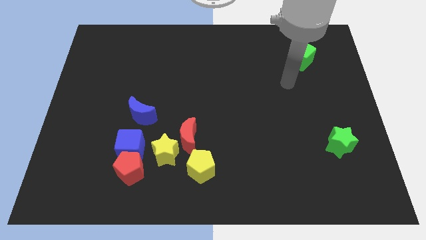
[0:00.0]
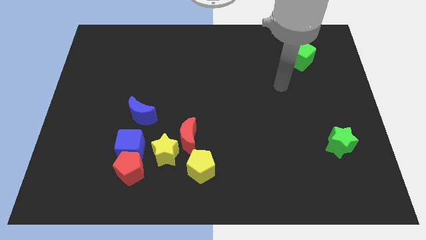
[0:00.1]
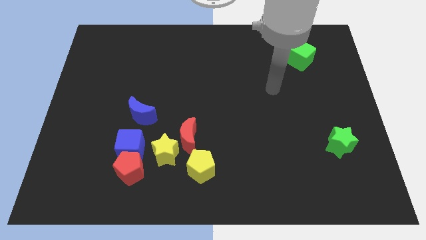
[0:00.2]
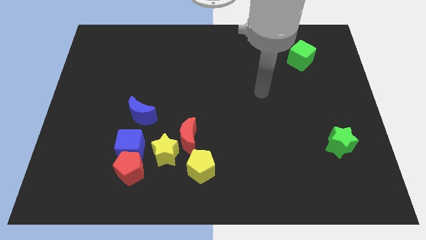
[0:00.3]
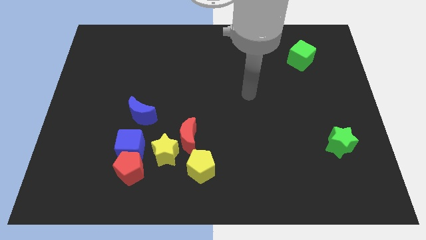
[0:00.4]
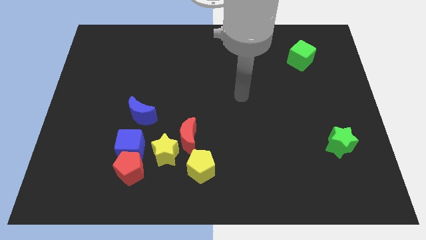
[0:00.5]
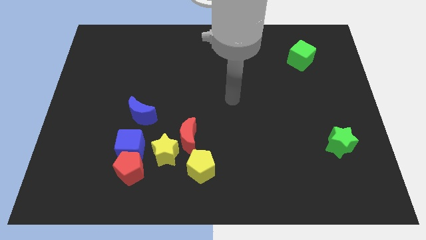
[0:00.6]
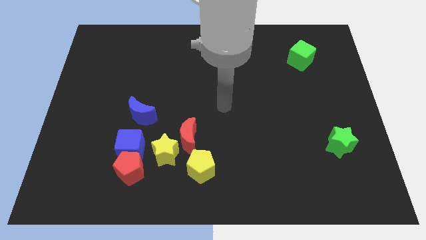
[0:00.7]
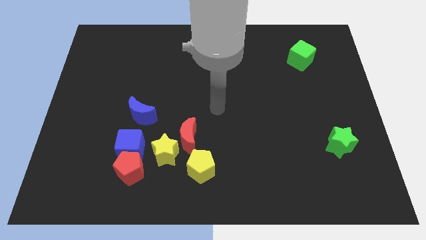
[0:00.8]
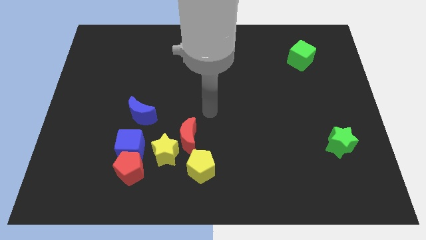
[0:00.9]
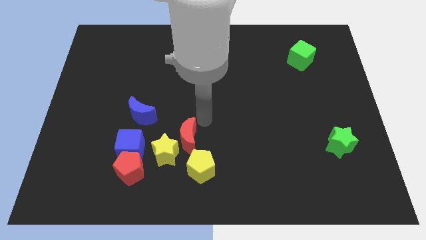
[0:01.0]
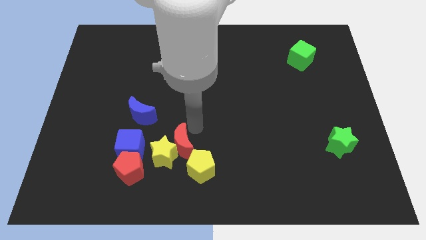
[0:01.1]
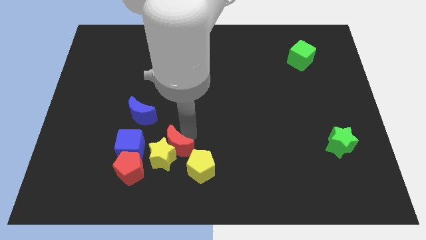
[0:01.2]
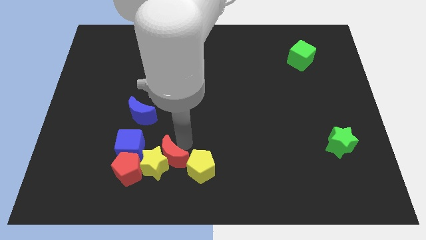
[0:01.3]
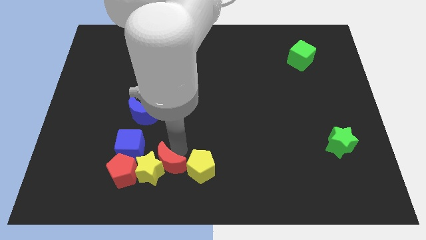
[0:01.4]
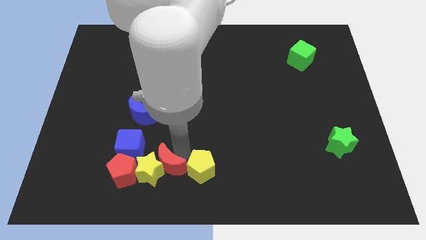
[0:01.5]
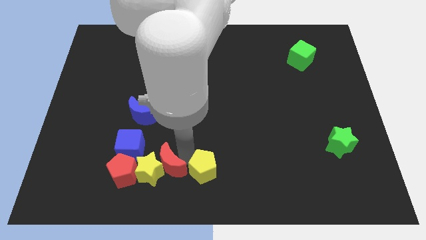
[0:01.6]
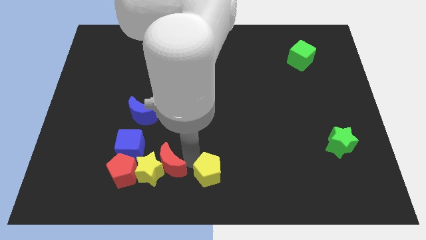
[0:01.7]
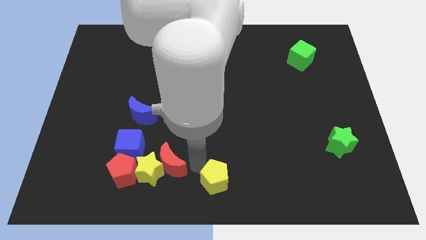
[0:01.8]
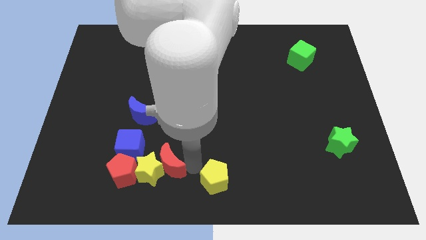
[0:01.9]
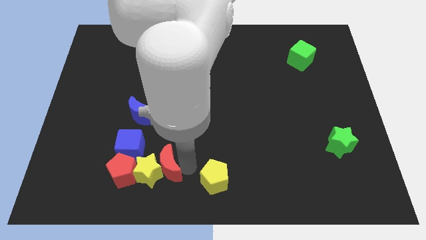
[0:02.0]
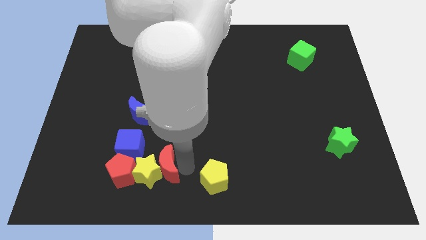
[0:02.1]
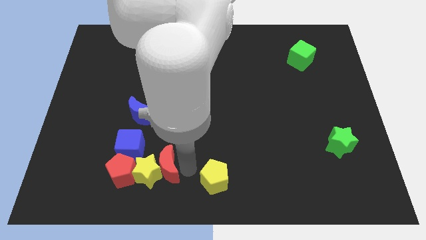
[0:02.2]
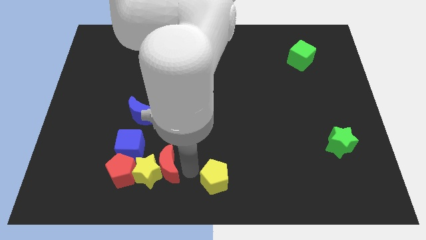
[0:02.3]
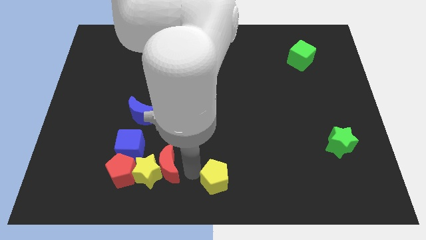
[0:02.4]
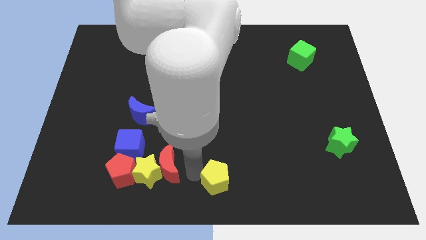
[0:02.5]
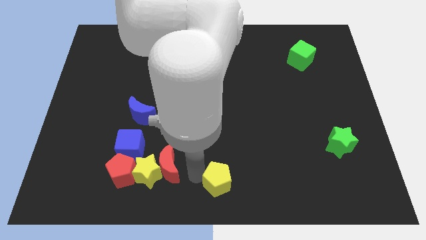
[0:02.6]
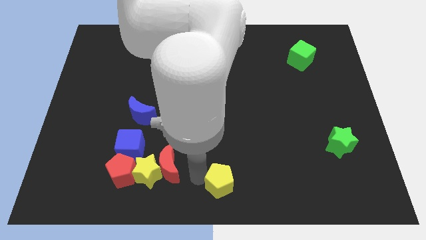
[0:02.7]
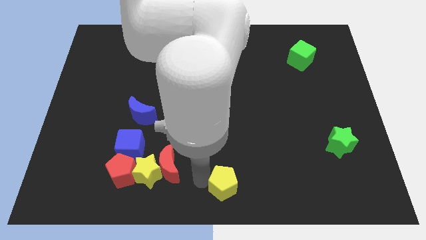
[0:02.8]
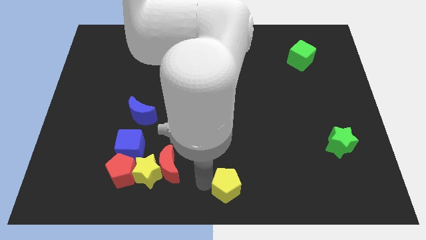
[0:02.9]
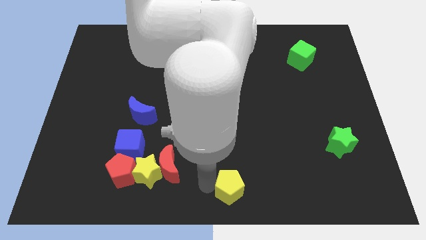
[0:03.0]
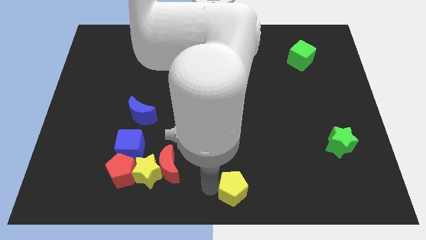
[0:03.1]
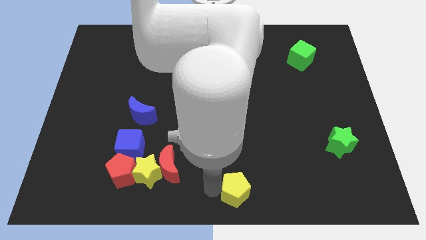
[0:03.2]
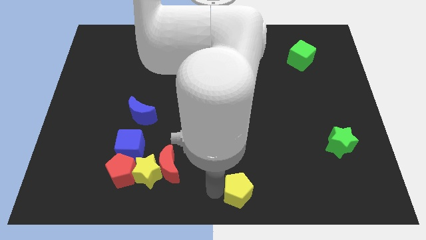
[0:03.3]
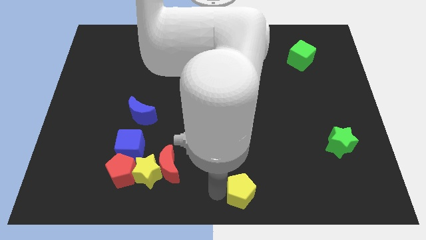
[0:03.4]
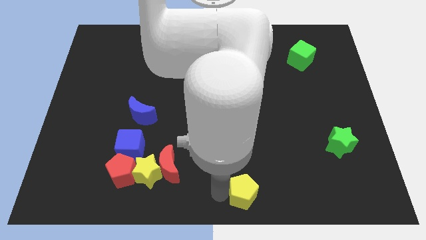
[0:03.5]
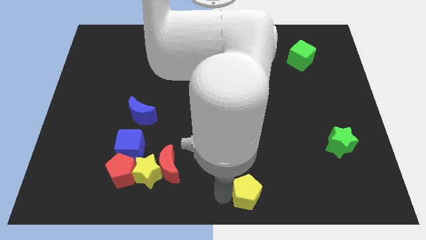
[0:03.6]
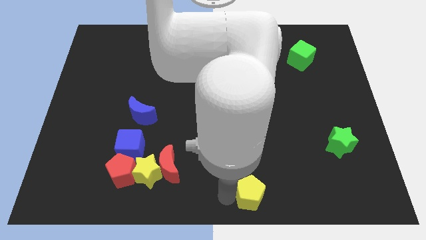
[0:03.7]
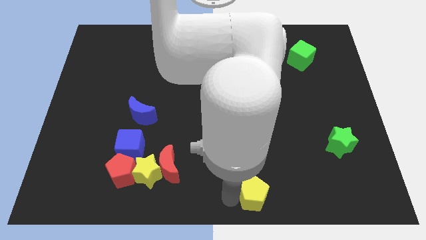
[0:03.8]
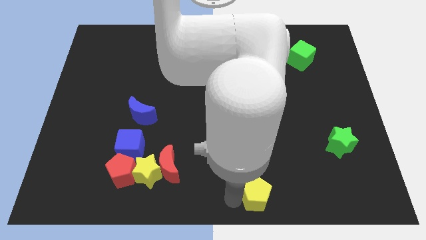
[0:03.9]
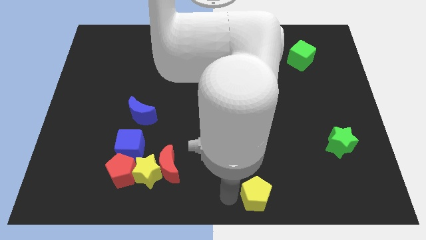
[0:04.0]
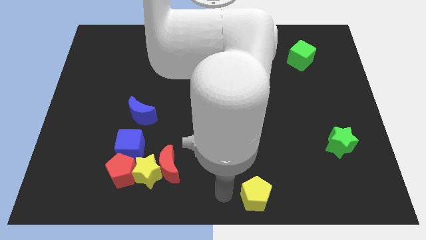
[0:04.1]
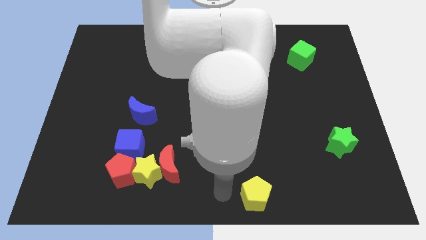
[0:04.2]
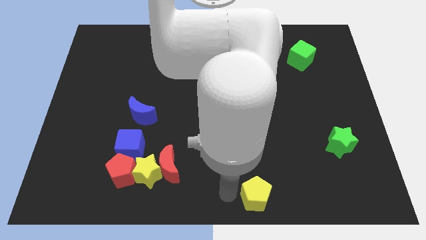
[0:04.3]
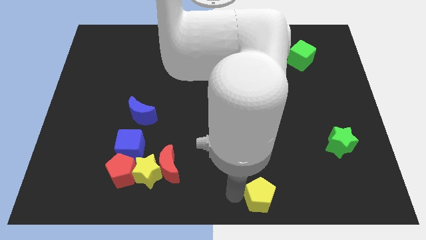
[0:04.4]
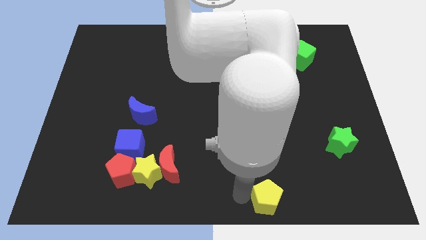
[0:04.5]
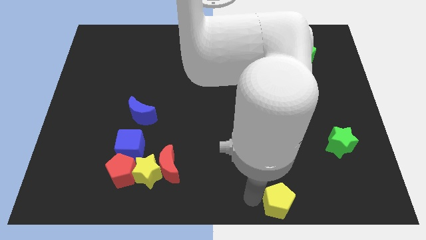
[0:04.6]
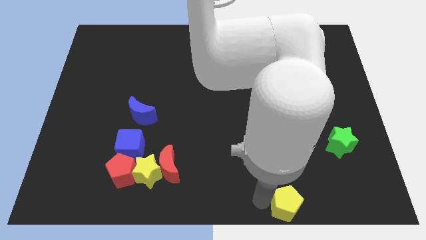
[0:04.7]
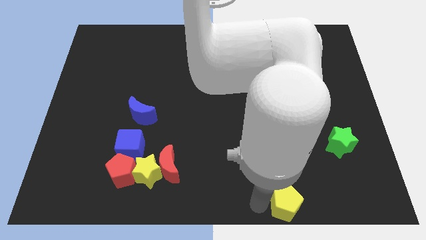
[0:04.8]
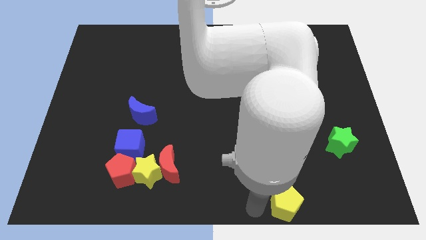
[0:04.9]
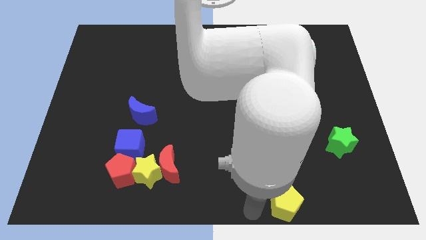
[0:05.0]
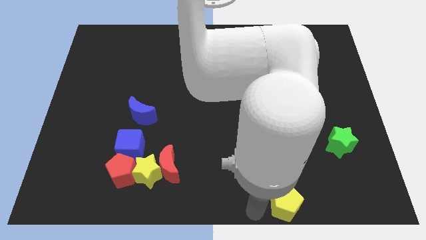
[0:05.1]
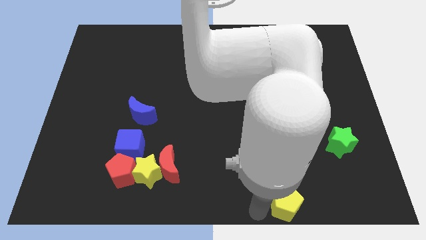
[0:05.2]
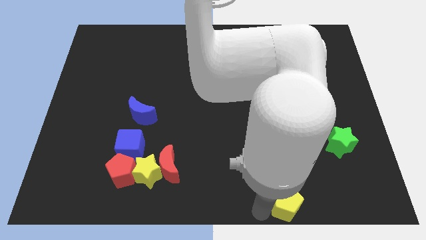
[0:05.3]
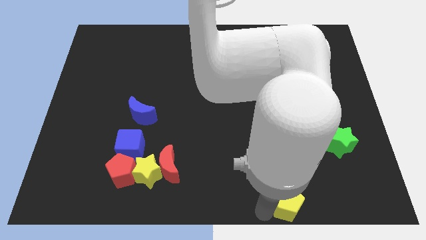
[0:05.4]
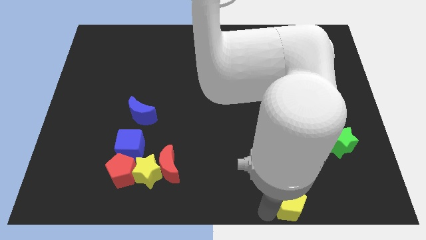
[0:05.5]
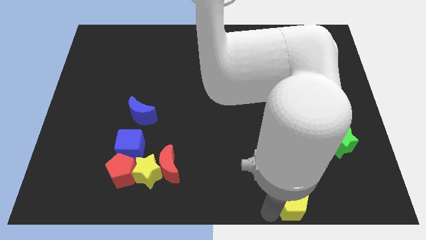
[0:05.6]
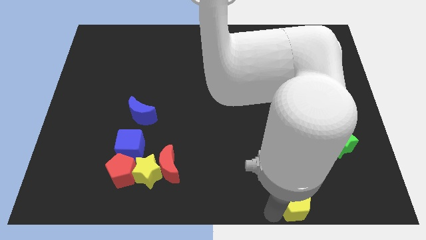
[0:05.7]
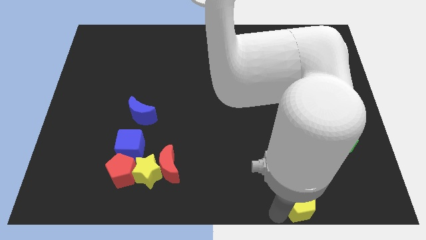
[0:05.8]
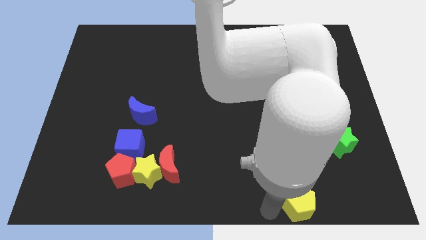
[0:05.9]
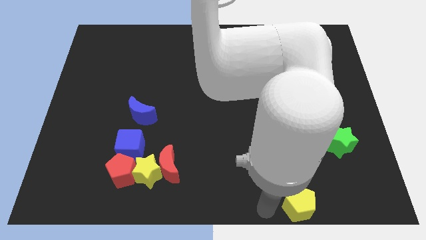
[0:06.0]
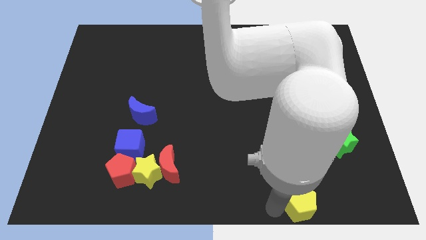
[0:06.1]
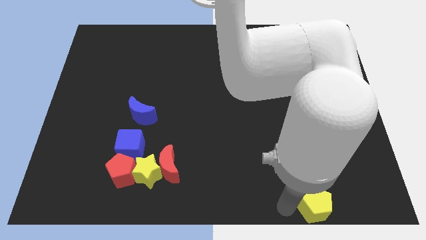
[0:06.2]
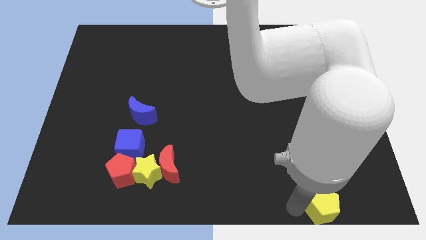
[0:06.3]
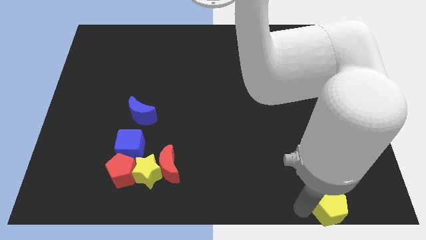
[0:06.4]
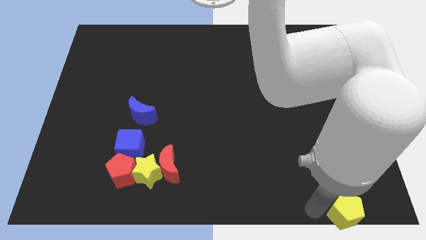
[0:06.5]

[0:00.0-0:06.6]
put the yellow pentagon to the bottom right
